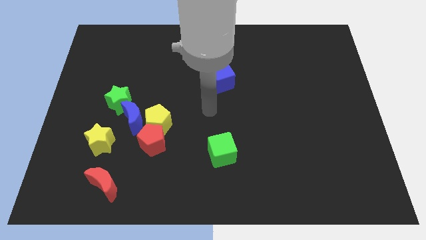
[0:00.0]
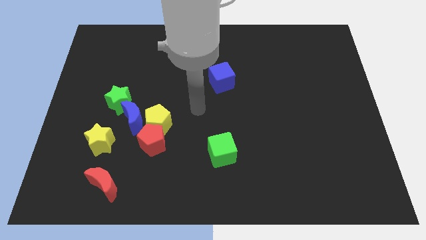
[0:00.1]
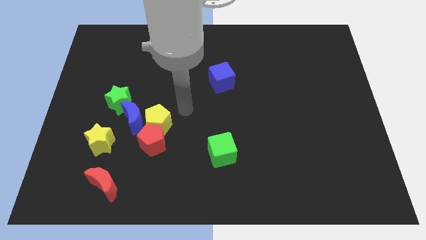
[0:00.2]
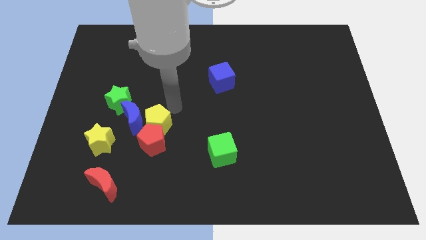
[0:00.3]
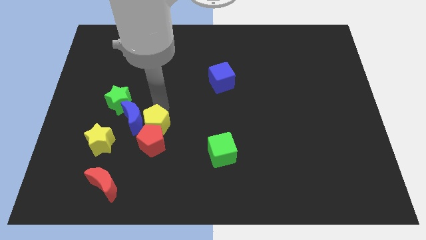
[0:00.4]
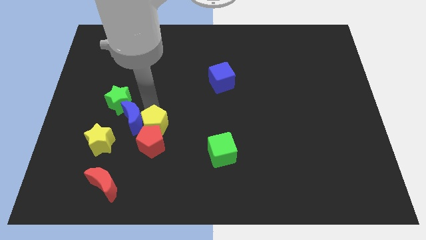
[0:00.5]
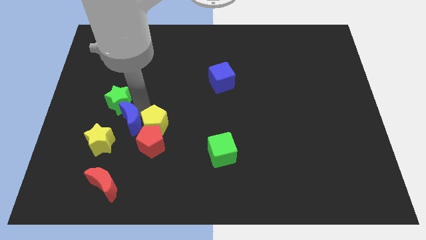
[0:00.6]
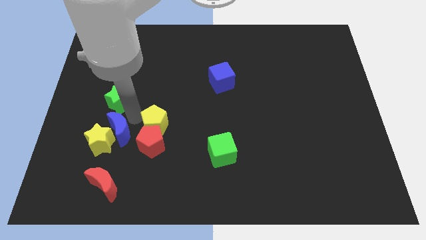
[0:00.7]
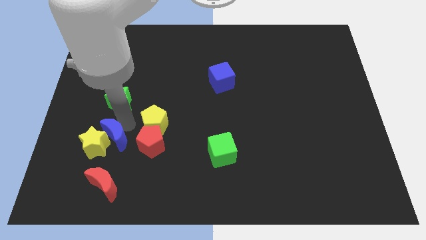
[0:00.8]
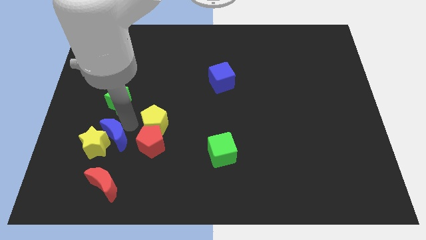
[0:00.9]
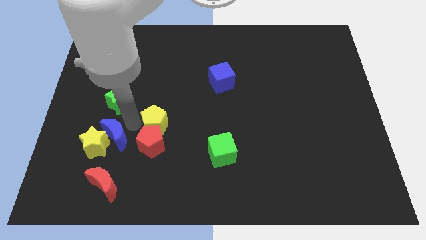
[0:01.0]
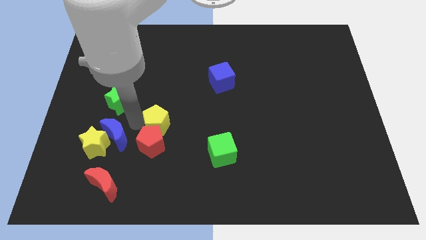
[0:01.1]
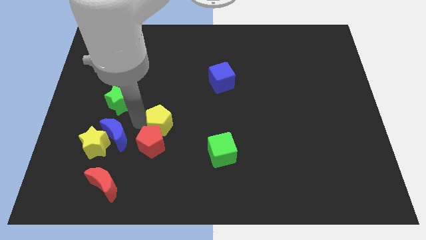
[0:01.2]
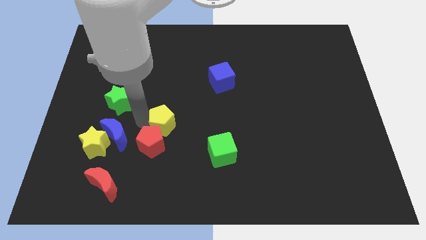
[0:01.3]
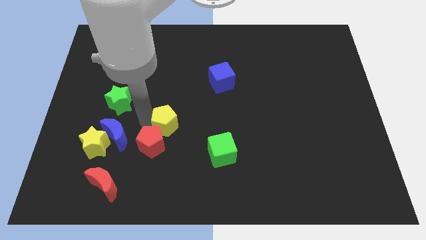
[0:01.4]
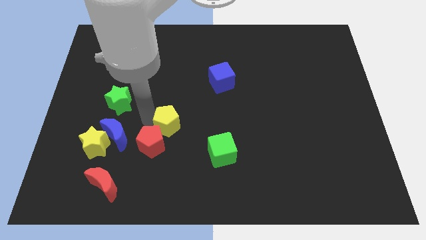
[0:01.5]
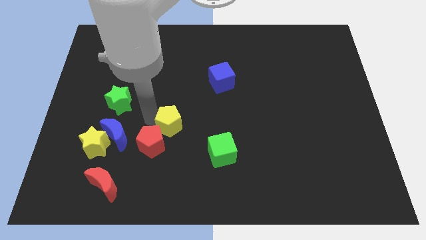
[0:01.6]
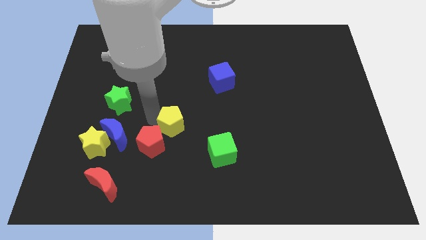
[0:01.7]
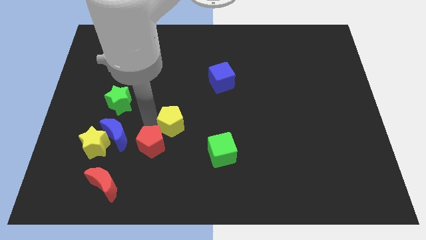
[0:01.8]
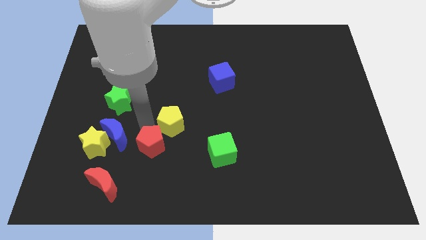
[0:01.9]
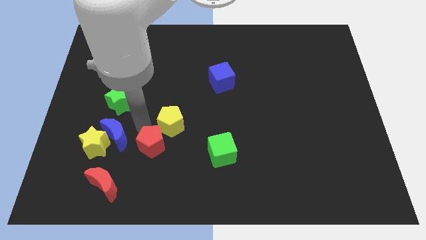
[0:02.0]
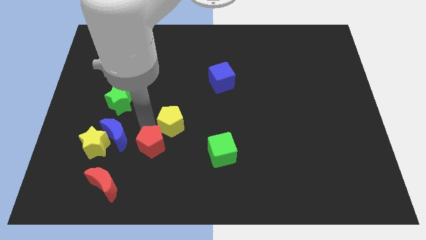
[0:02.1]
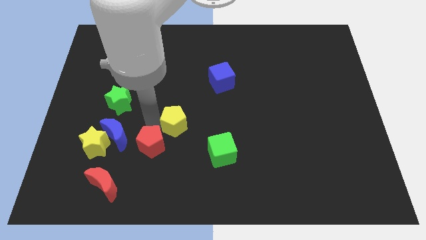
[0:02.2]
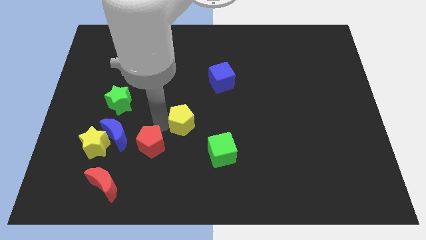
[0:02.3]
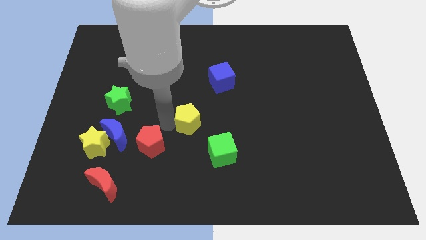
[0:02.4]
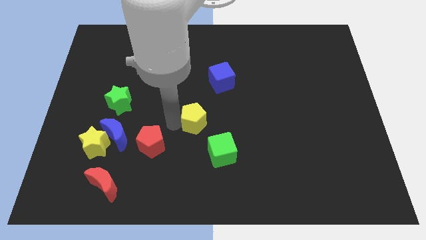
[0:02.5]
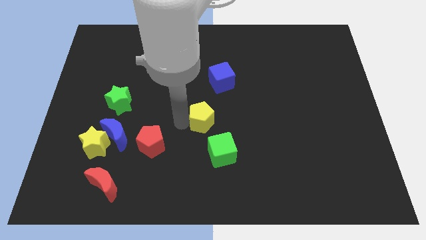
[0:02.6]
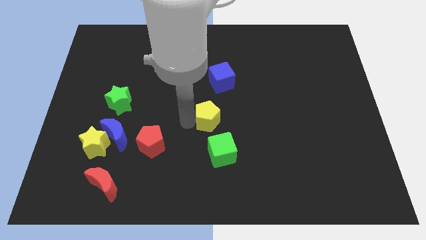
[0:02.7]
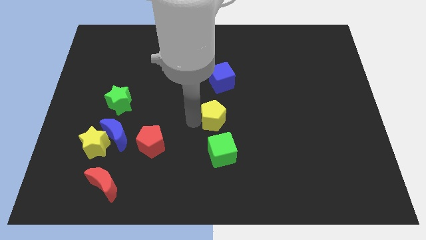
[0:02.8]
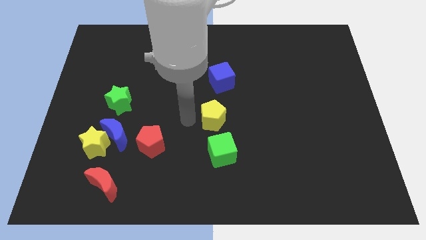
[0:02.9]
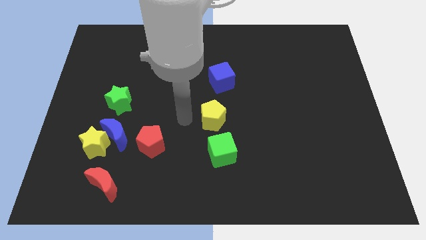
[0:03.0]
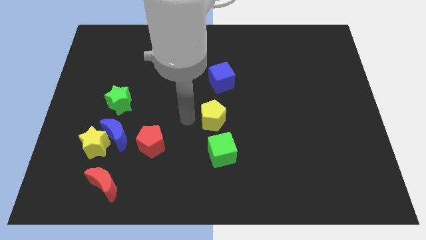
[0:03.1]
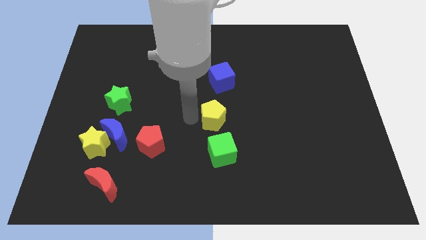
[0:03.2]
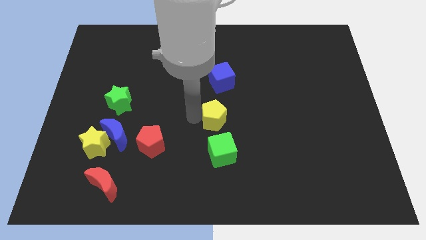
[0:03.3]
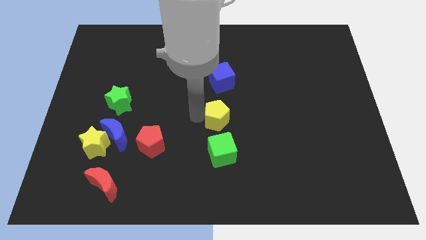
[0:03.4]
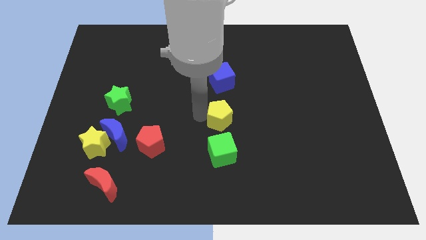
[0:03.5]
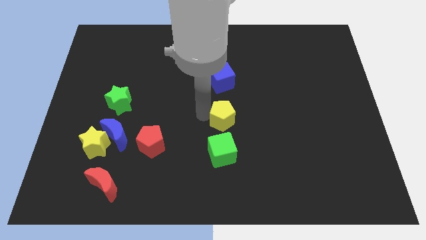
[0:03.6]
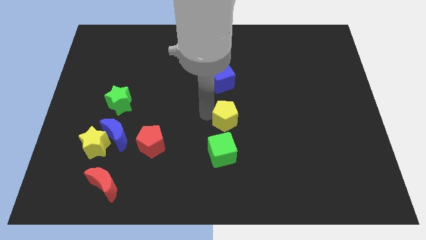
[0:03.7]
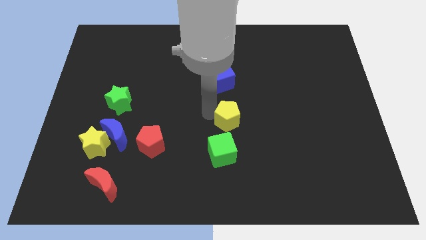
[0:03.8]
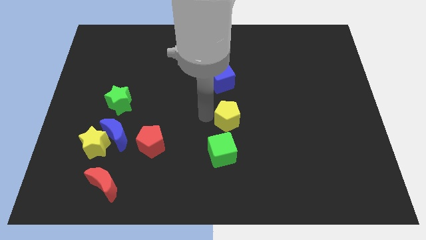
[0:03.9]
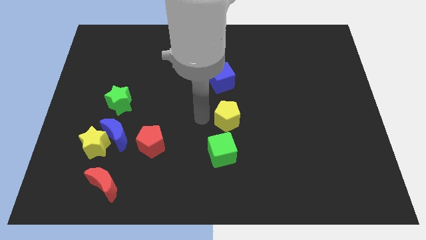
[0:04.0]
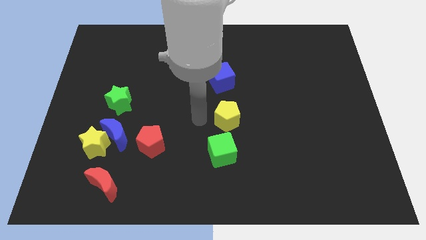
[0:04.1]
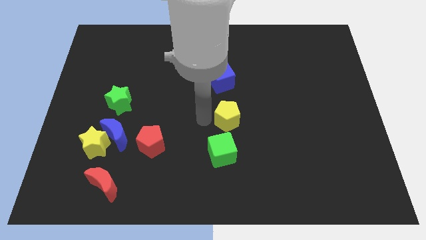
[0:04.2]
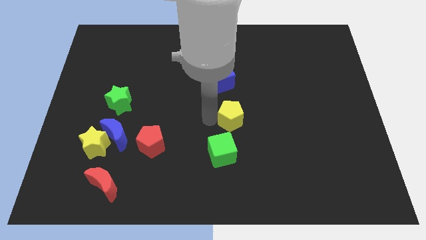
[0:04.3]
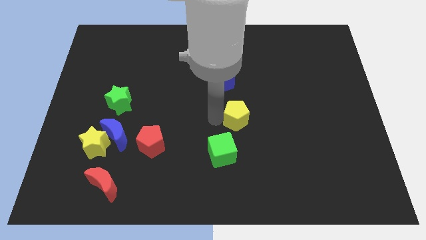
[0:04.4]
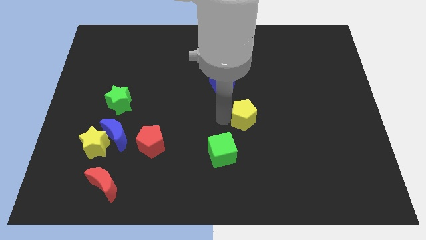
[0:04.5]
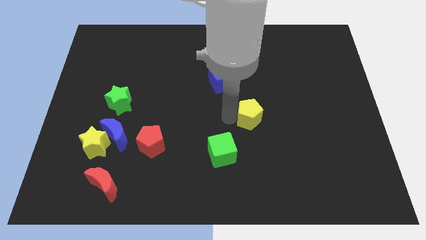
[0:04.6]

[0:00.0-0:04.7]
move the yellow pentagon to the right

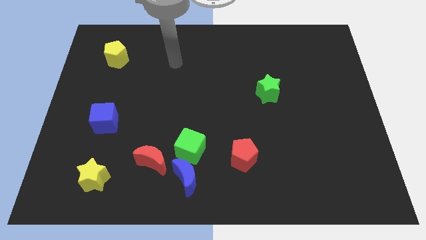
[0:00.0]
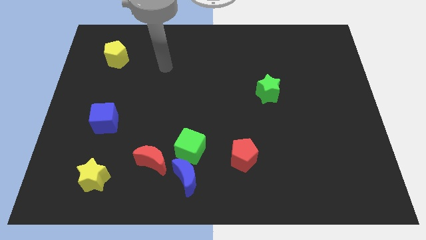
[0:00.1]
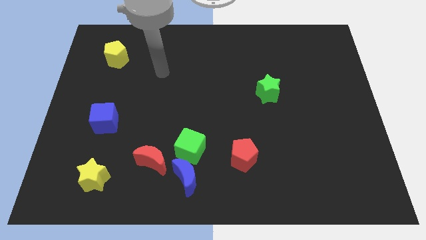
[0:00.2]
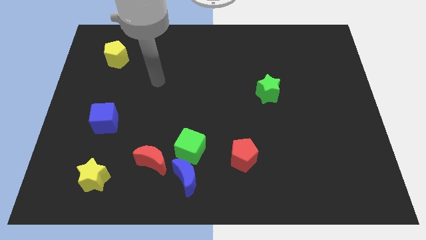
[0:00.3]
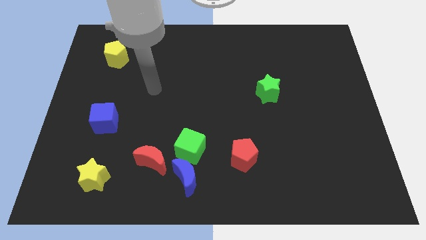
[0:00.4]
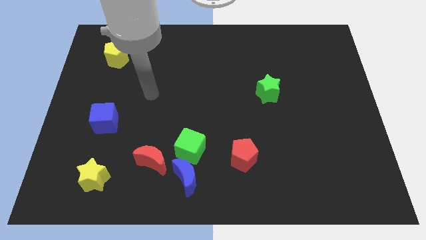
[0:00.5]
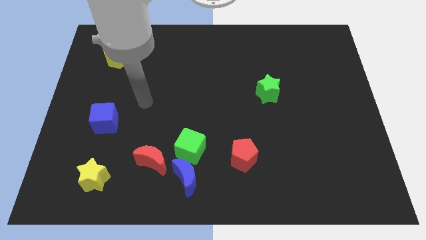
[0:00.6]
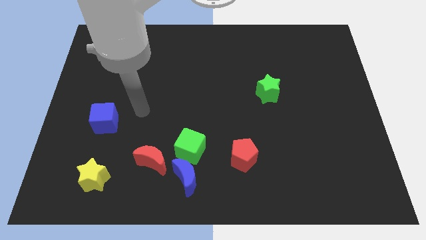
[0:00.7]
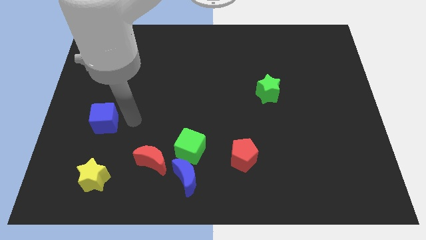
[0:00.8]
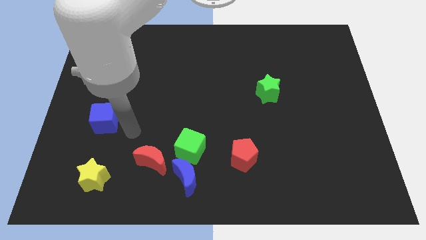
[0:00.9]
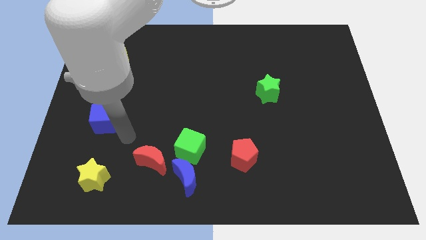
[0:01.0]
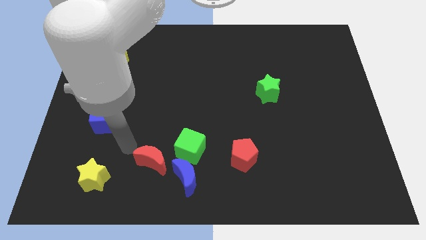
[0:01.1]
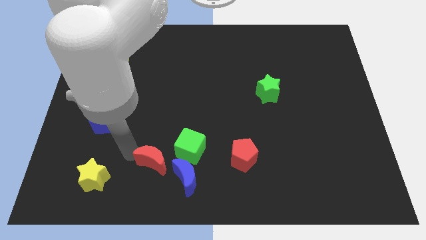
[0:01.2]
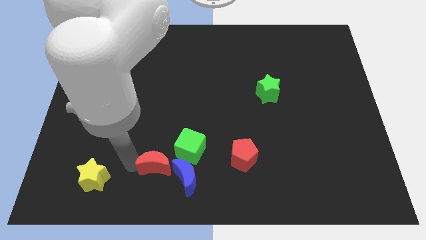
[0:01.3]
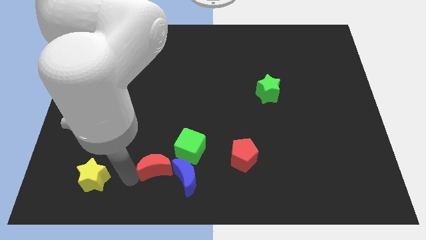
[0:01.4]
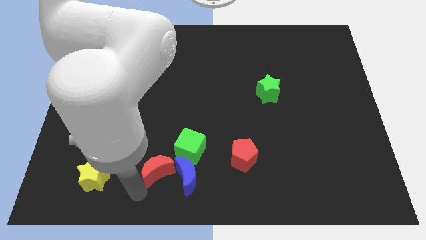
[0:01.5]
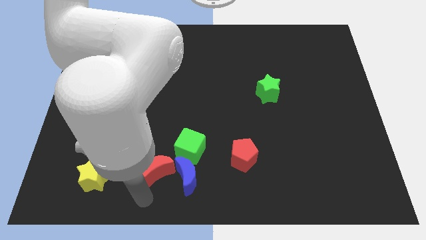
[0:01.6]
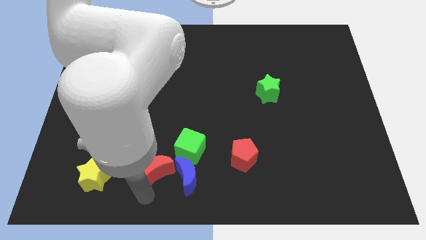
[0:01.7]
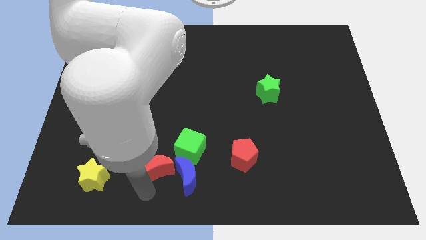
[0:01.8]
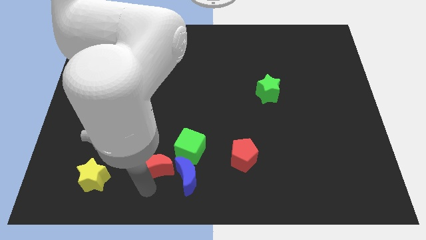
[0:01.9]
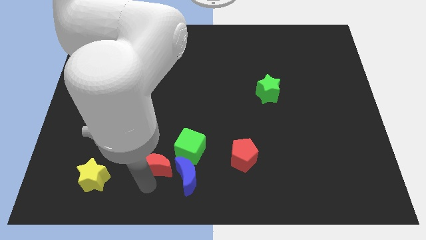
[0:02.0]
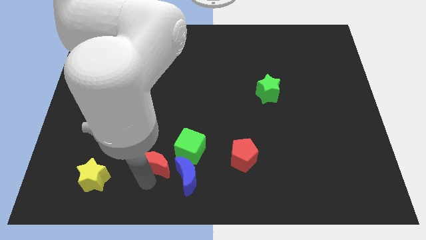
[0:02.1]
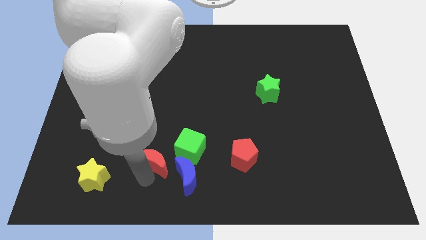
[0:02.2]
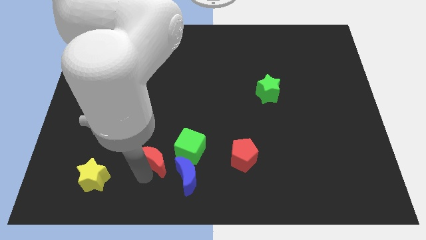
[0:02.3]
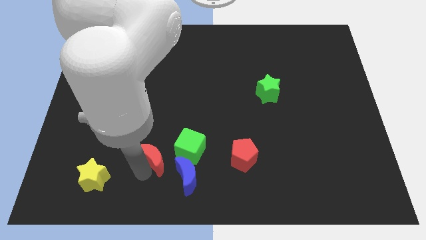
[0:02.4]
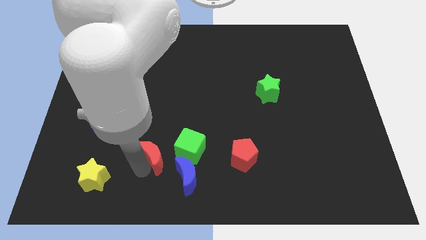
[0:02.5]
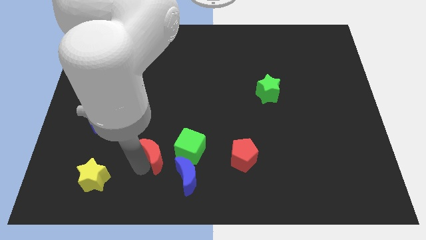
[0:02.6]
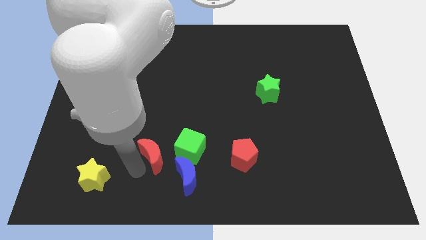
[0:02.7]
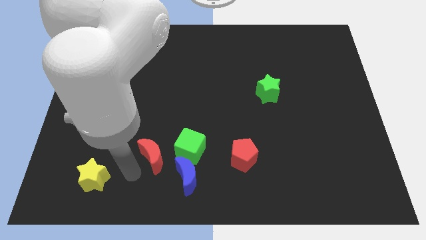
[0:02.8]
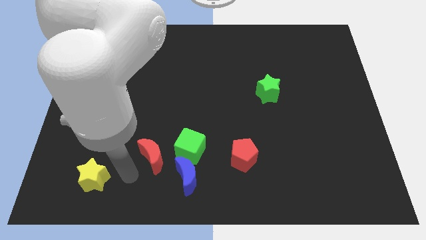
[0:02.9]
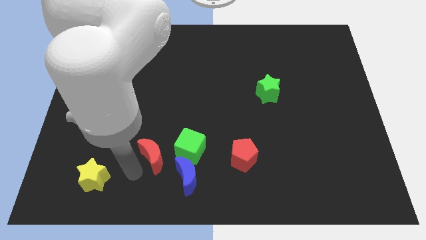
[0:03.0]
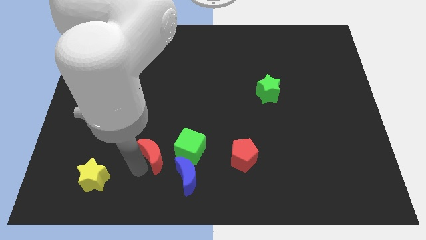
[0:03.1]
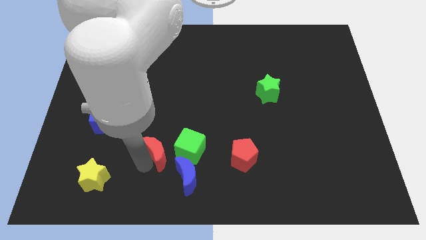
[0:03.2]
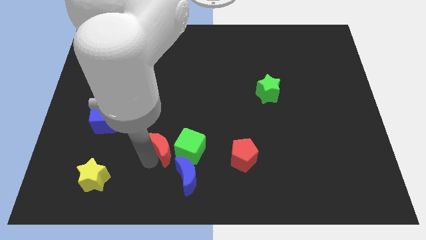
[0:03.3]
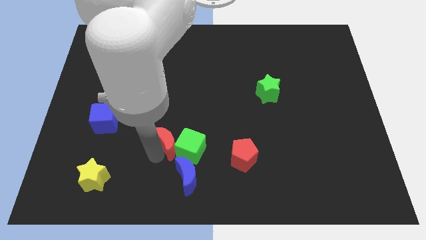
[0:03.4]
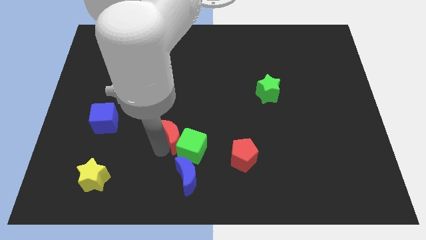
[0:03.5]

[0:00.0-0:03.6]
slide the red moon diagonally upwards and right a little bit
